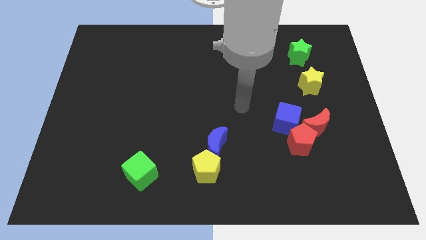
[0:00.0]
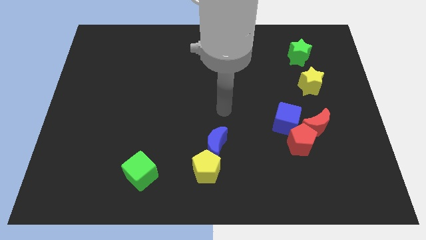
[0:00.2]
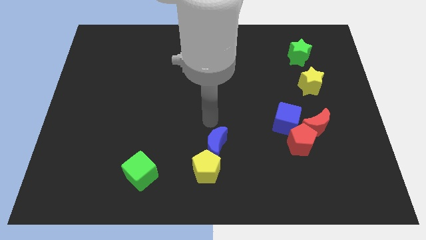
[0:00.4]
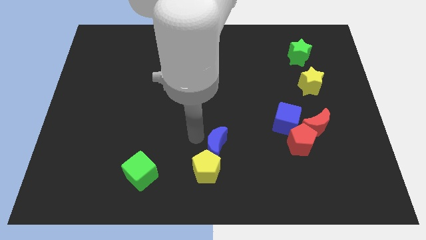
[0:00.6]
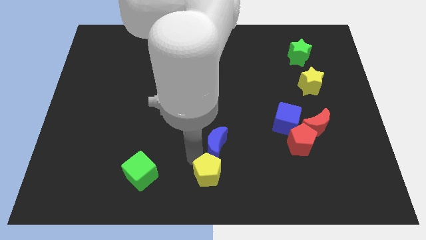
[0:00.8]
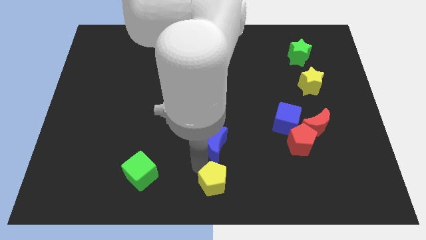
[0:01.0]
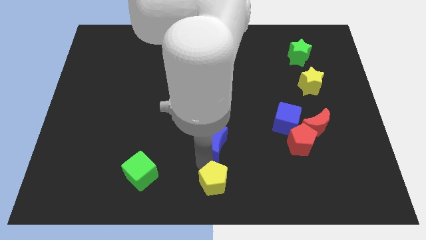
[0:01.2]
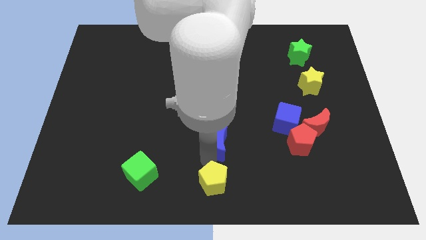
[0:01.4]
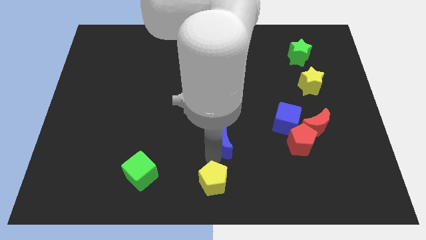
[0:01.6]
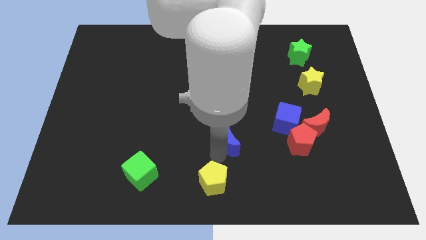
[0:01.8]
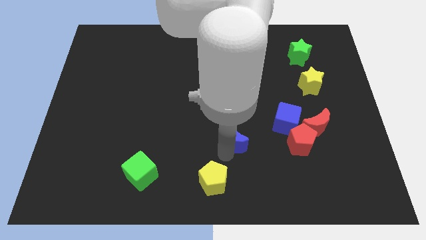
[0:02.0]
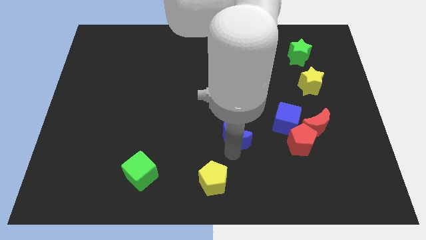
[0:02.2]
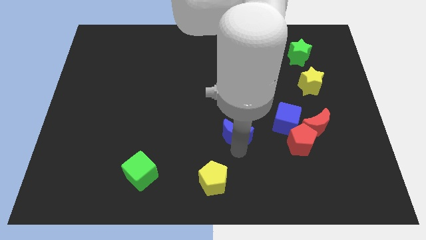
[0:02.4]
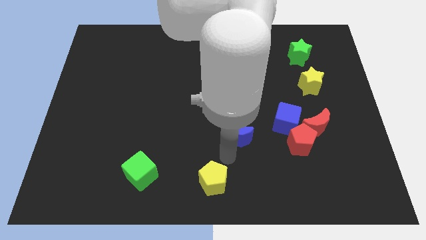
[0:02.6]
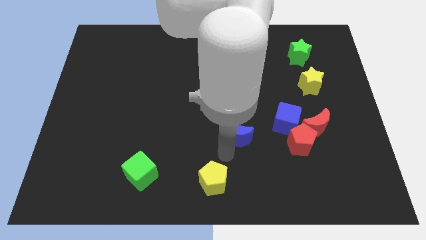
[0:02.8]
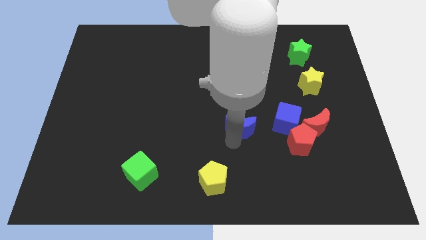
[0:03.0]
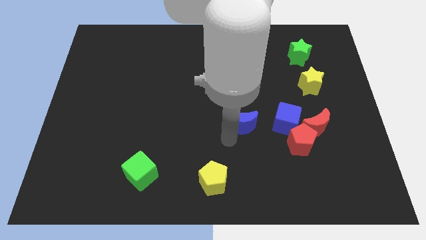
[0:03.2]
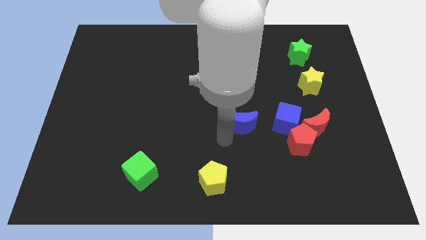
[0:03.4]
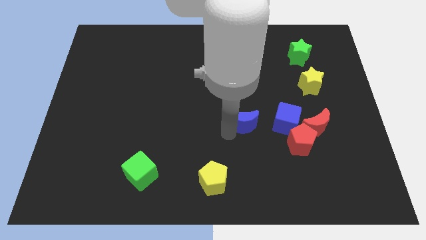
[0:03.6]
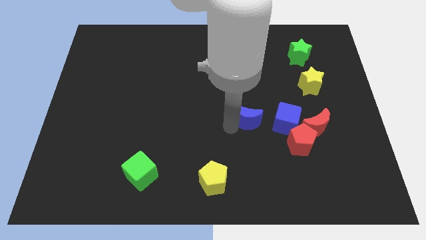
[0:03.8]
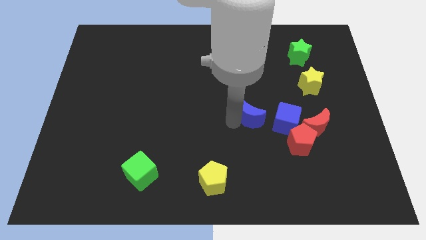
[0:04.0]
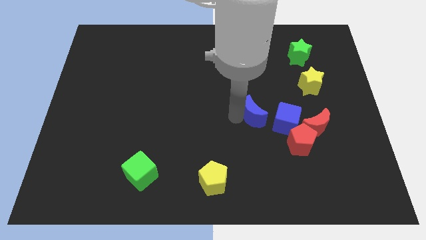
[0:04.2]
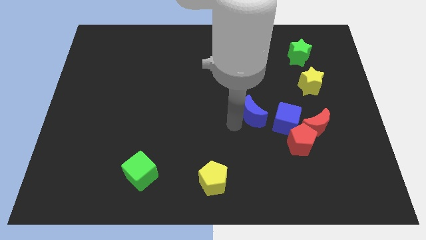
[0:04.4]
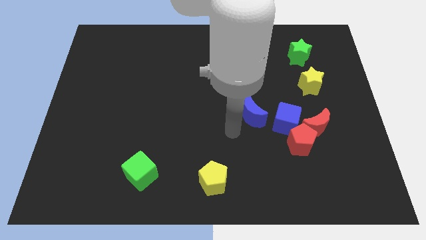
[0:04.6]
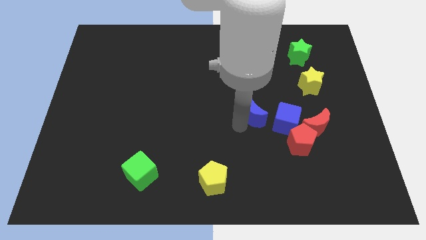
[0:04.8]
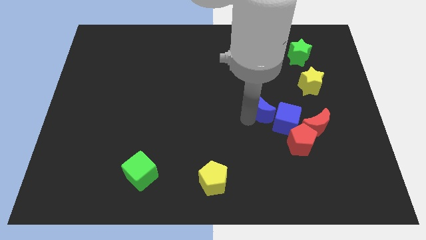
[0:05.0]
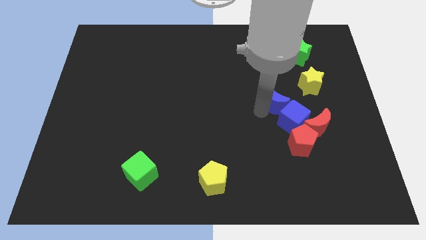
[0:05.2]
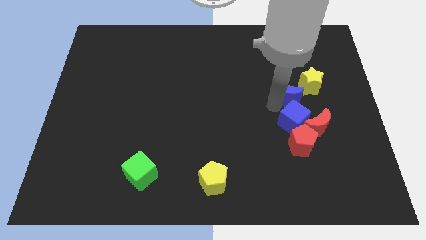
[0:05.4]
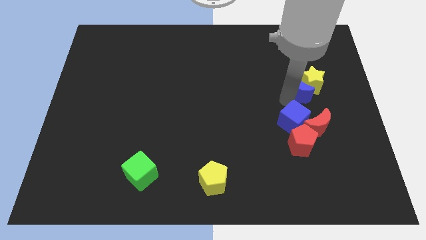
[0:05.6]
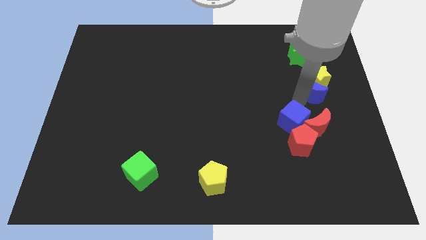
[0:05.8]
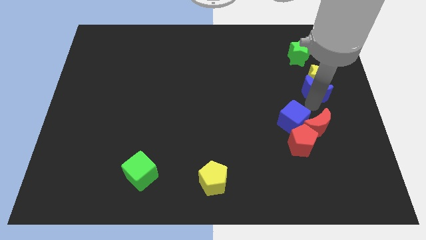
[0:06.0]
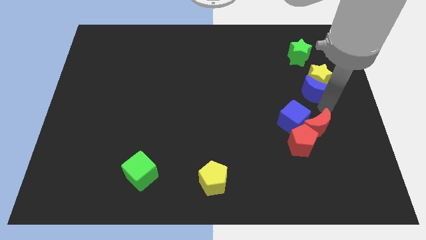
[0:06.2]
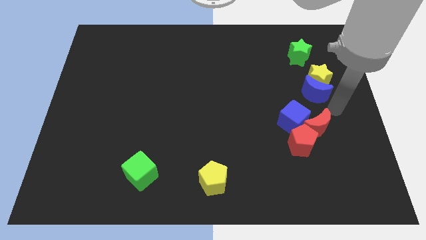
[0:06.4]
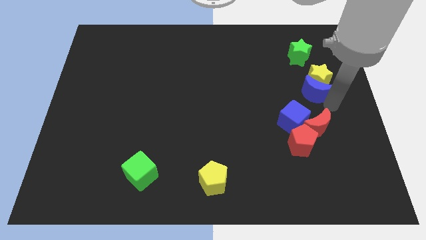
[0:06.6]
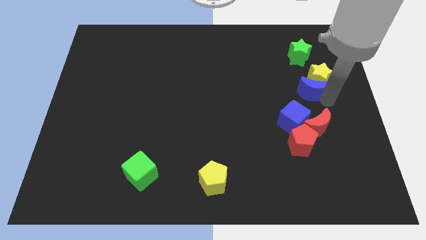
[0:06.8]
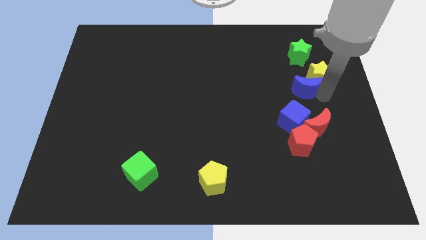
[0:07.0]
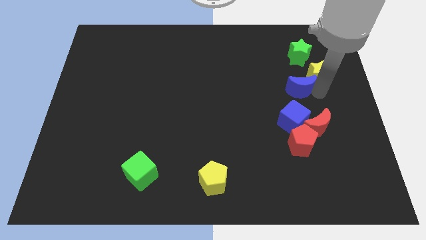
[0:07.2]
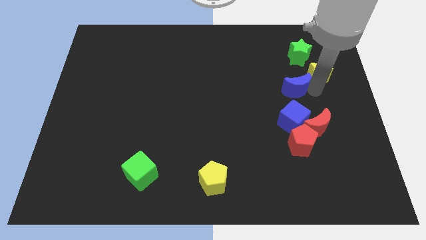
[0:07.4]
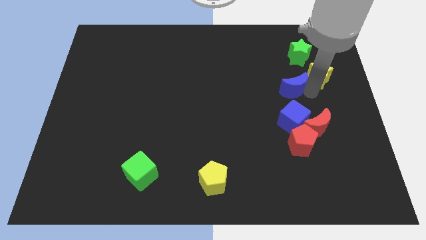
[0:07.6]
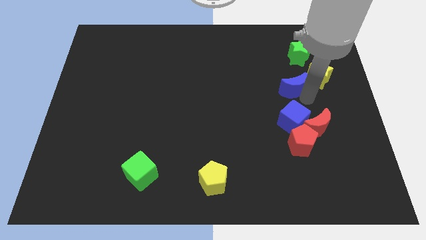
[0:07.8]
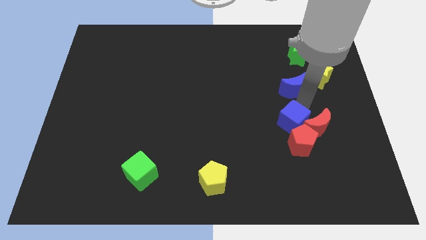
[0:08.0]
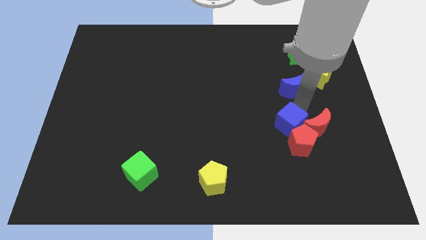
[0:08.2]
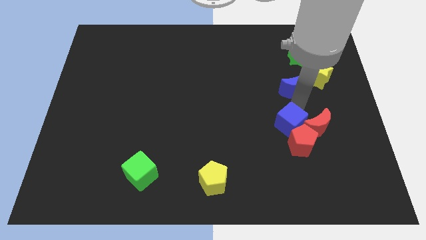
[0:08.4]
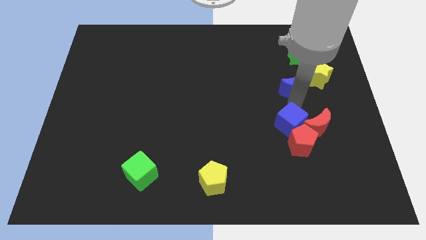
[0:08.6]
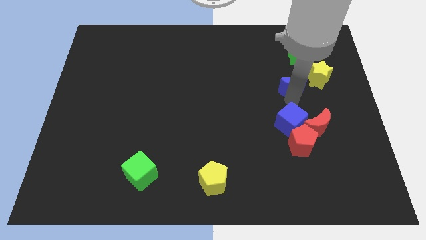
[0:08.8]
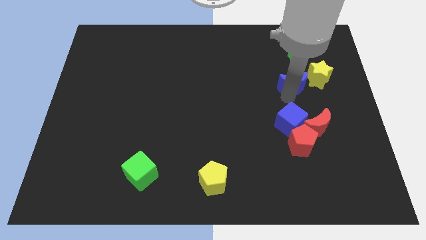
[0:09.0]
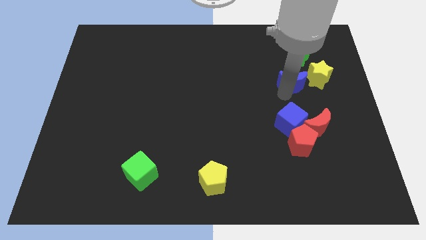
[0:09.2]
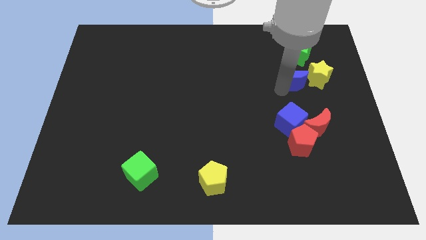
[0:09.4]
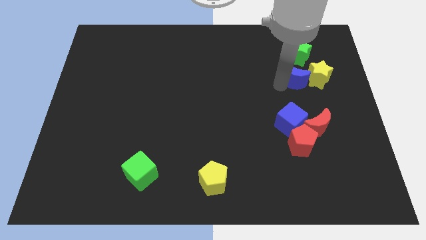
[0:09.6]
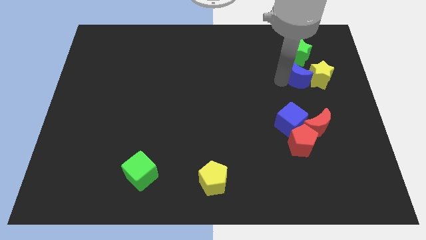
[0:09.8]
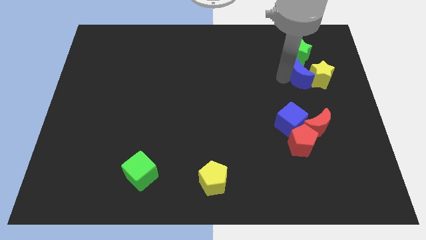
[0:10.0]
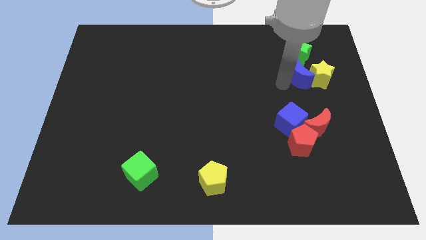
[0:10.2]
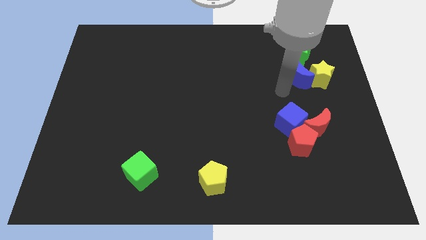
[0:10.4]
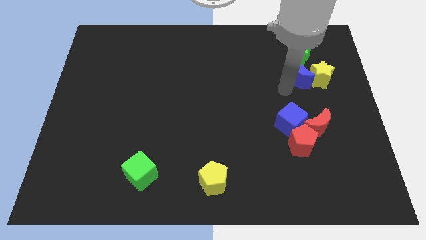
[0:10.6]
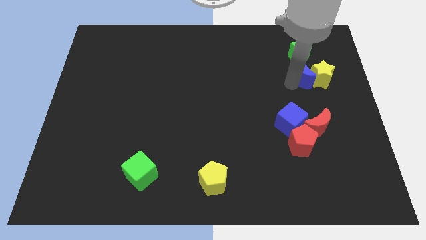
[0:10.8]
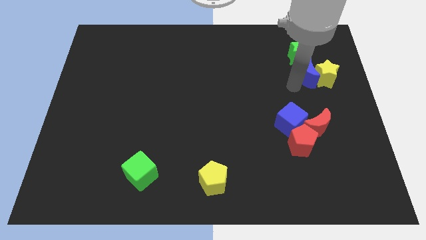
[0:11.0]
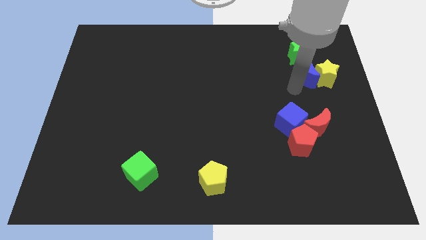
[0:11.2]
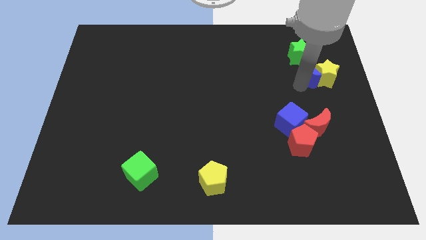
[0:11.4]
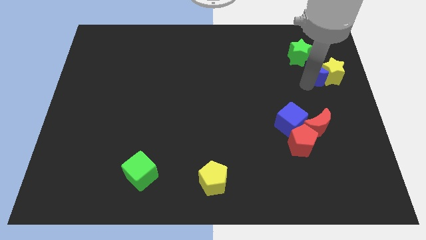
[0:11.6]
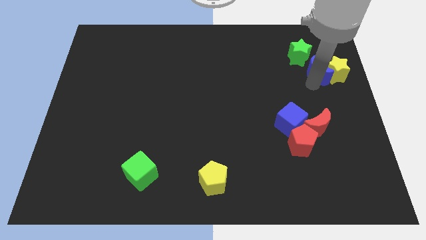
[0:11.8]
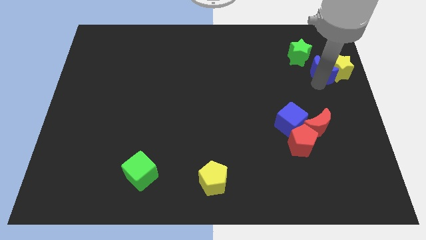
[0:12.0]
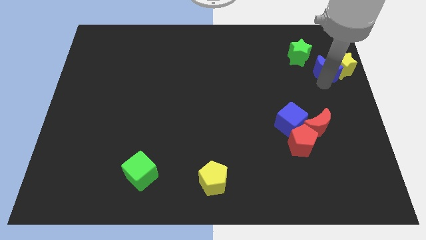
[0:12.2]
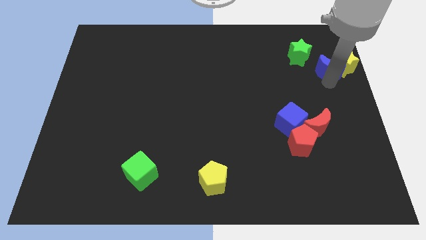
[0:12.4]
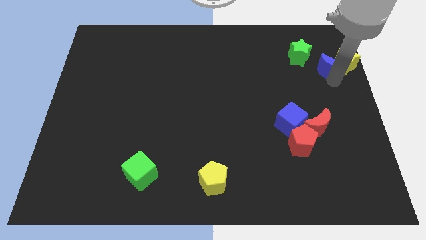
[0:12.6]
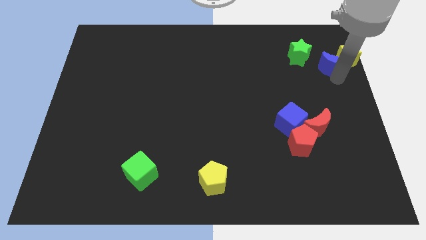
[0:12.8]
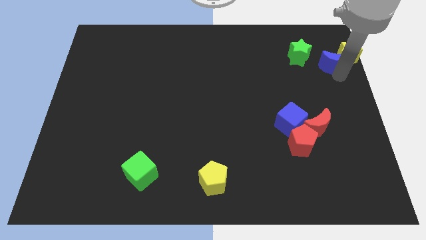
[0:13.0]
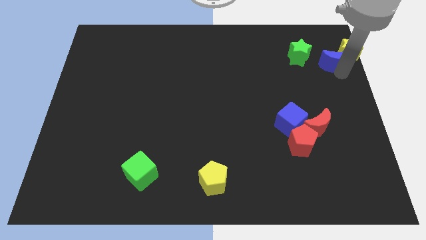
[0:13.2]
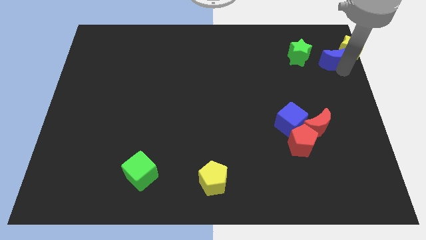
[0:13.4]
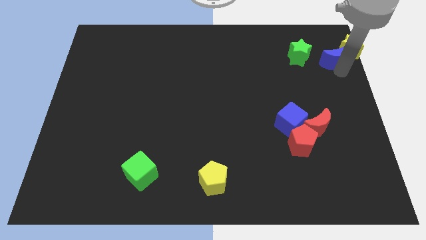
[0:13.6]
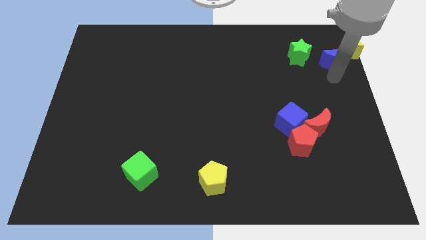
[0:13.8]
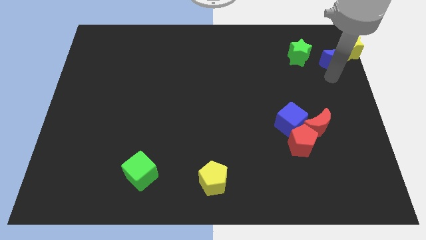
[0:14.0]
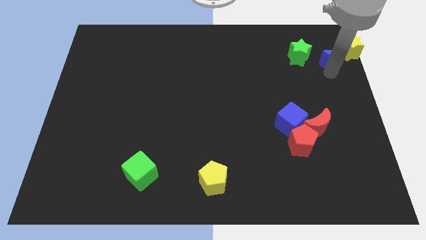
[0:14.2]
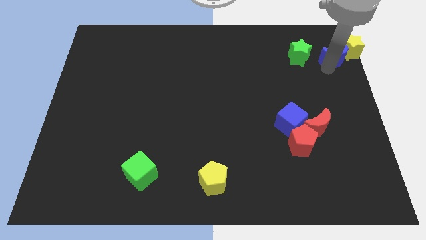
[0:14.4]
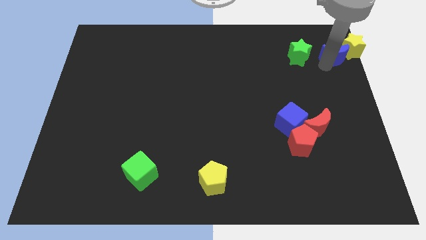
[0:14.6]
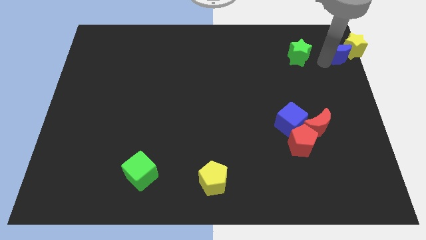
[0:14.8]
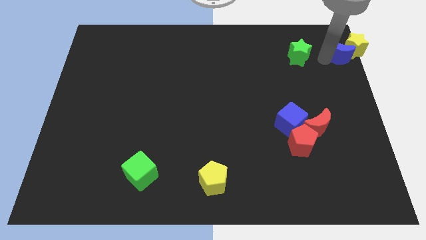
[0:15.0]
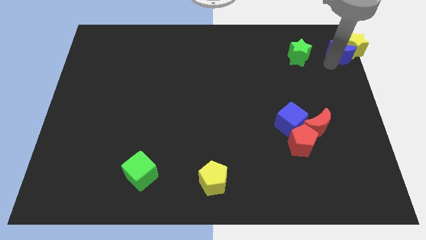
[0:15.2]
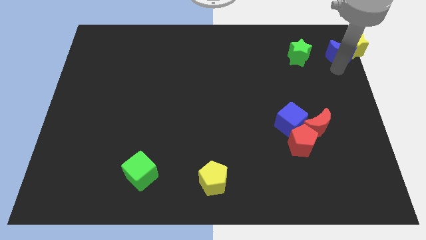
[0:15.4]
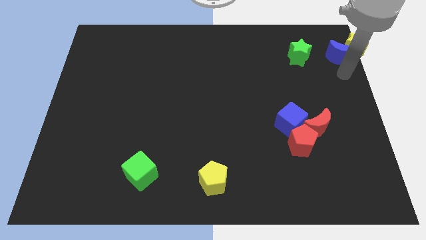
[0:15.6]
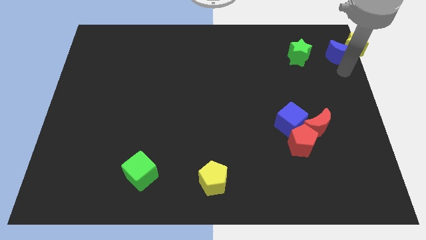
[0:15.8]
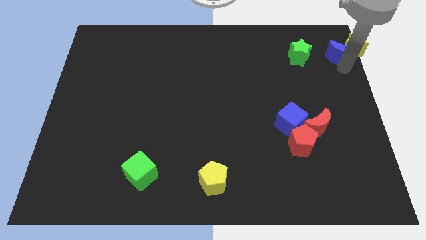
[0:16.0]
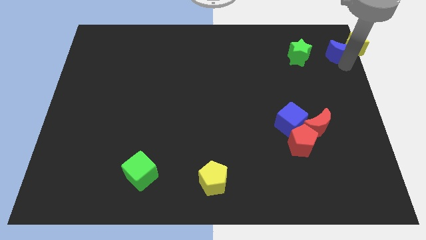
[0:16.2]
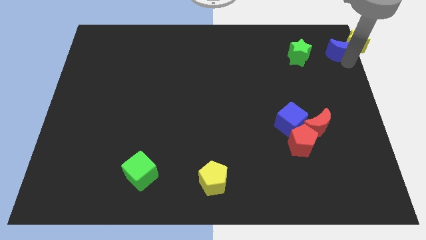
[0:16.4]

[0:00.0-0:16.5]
move the blue moon to the top right corner
